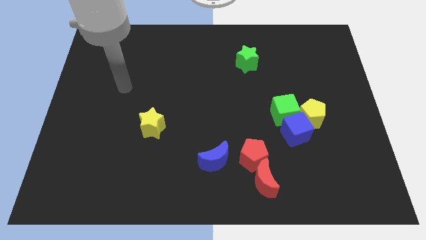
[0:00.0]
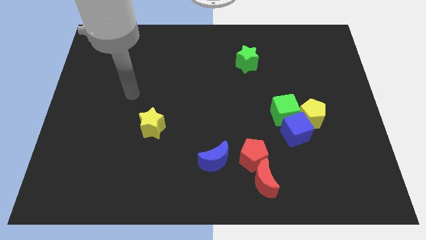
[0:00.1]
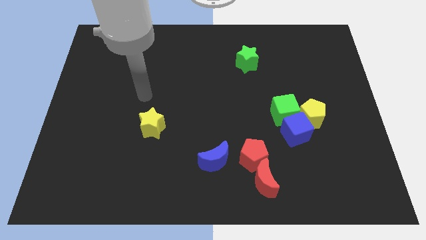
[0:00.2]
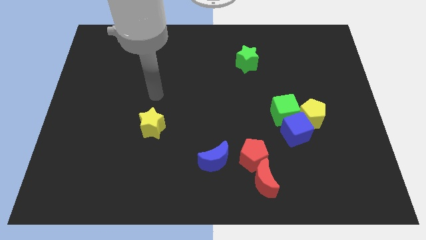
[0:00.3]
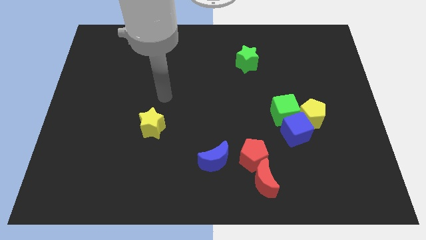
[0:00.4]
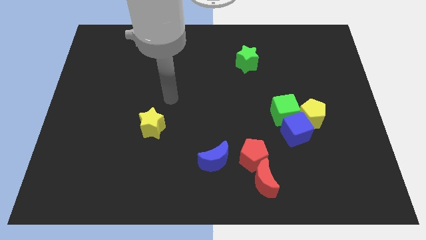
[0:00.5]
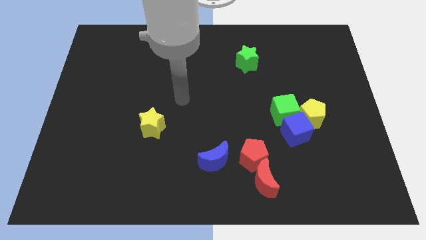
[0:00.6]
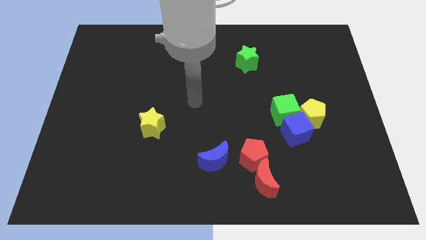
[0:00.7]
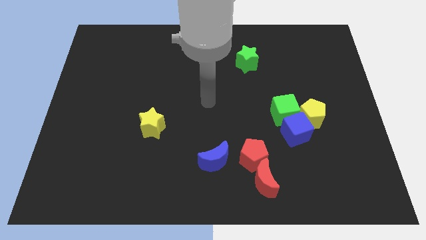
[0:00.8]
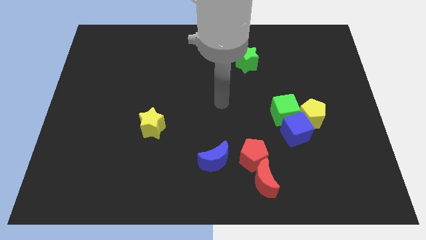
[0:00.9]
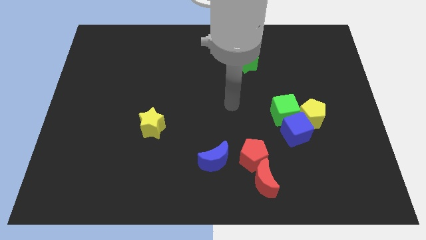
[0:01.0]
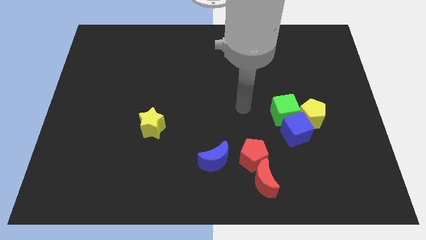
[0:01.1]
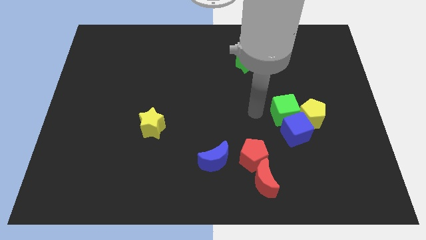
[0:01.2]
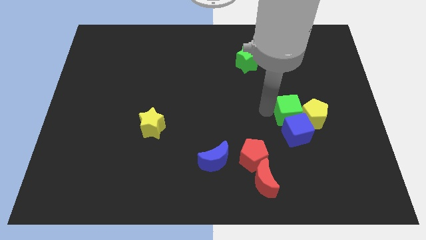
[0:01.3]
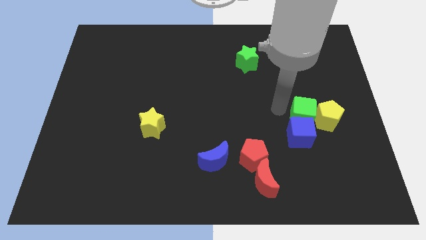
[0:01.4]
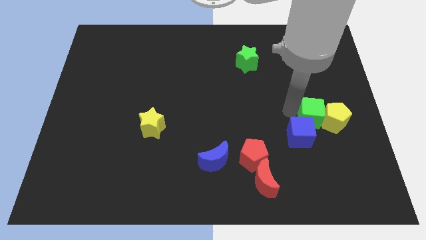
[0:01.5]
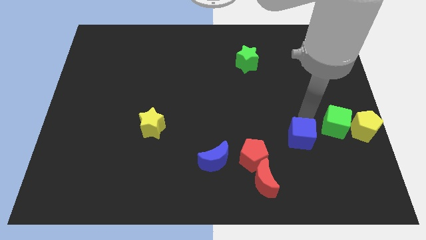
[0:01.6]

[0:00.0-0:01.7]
pull the blue cube apart from the yellow pentagon and green cube

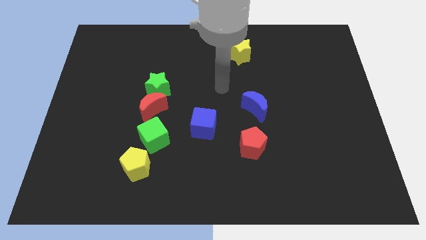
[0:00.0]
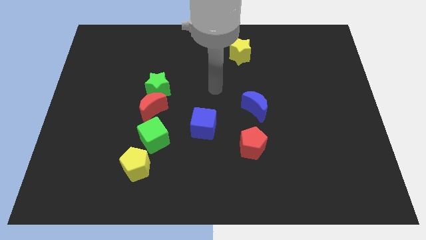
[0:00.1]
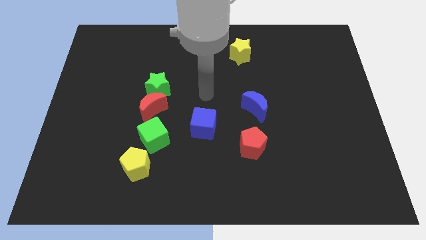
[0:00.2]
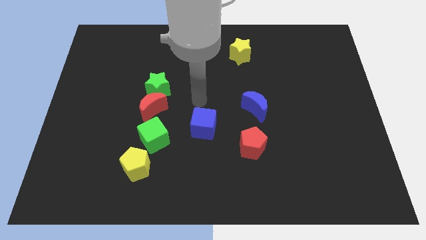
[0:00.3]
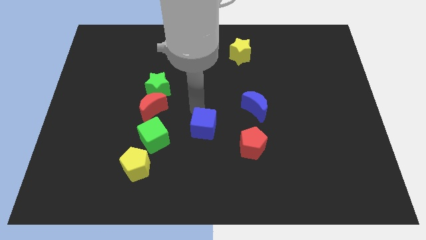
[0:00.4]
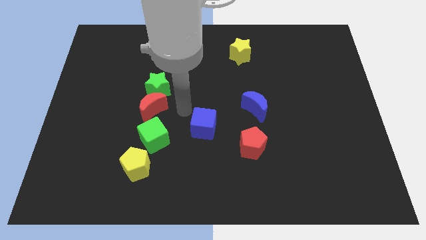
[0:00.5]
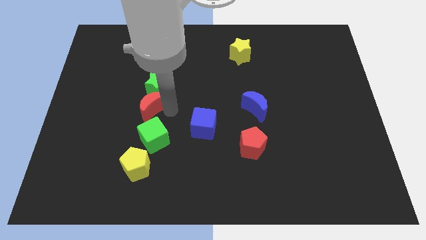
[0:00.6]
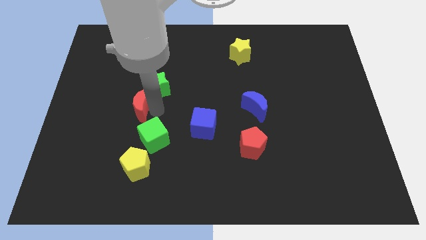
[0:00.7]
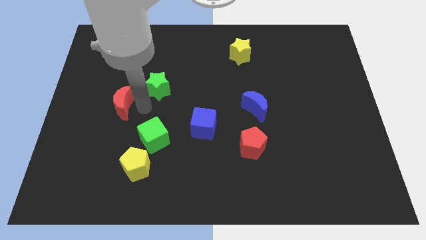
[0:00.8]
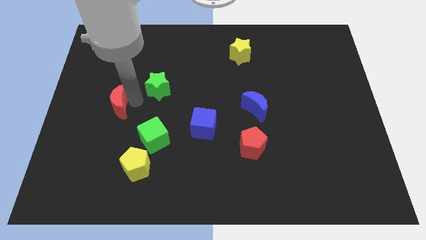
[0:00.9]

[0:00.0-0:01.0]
separate the green star from the red moon

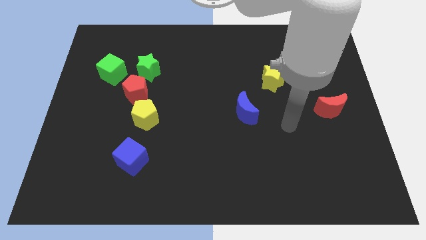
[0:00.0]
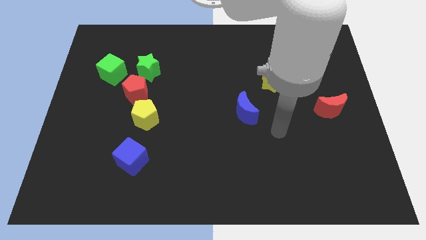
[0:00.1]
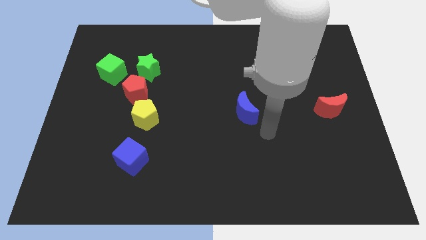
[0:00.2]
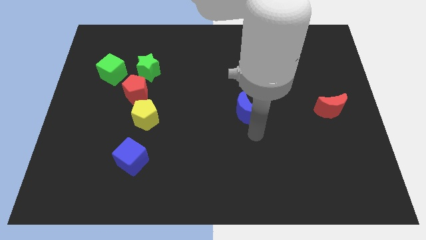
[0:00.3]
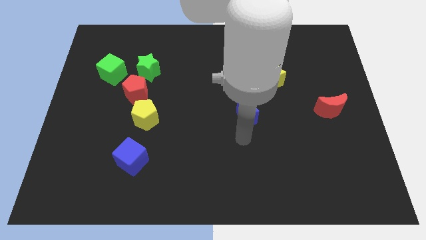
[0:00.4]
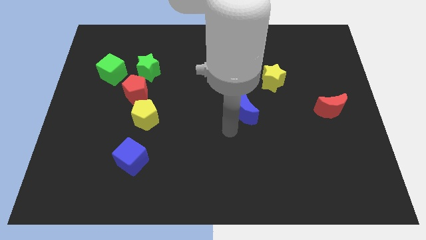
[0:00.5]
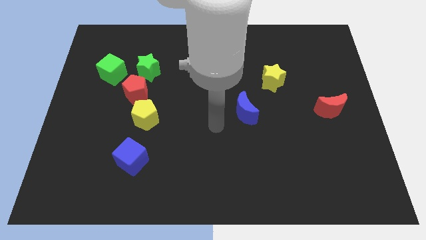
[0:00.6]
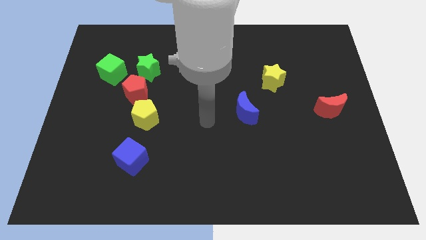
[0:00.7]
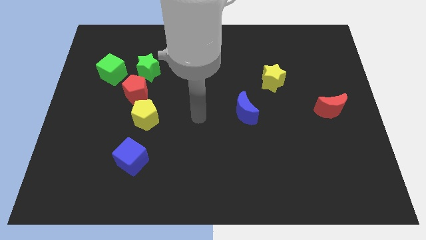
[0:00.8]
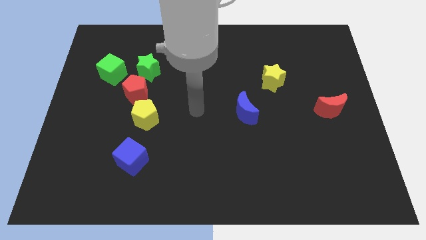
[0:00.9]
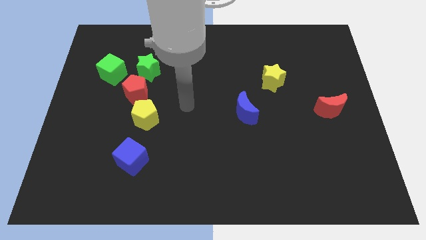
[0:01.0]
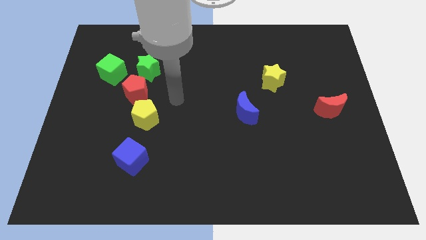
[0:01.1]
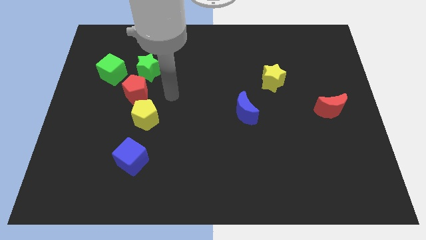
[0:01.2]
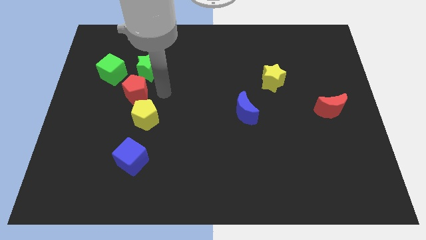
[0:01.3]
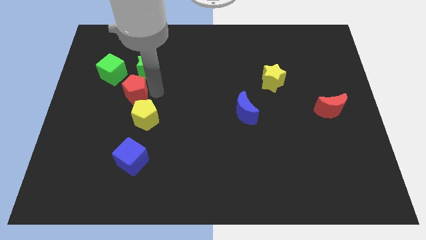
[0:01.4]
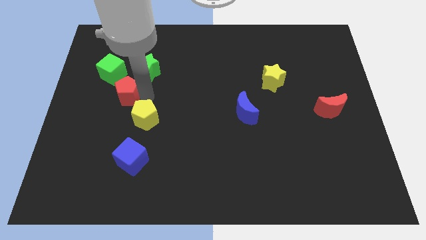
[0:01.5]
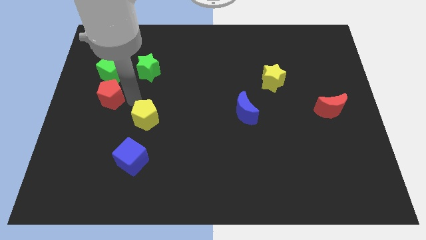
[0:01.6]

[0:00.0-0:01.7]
separate the yellow pentagon from the red pentagon

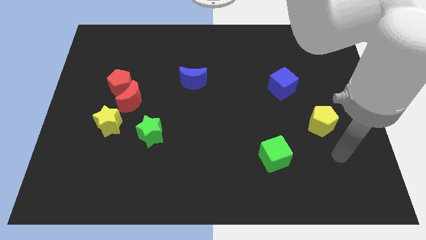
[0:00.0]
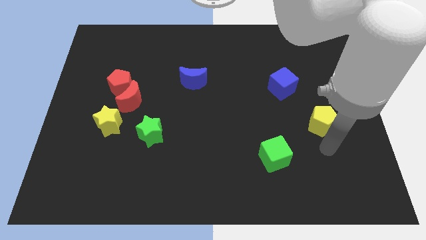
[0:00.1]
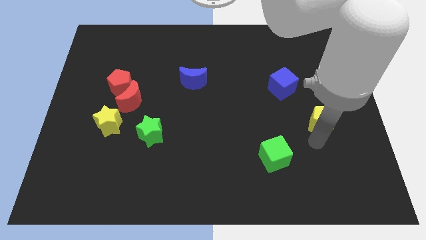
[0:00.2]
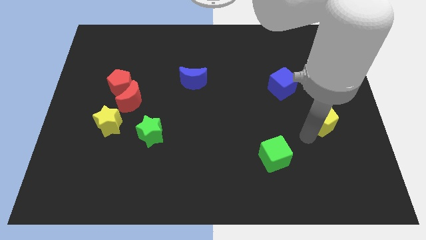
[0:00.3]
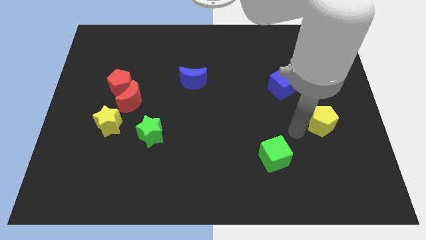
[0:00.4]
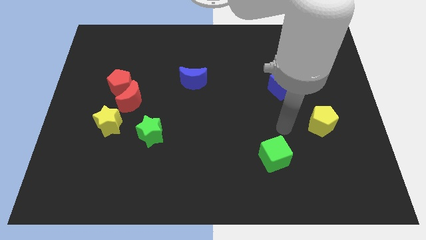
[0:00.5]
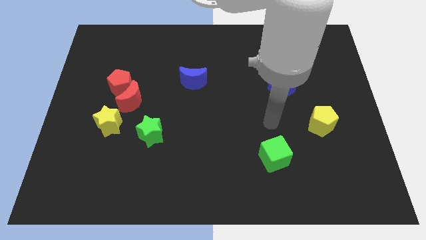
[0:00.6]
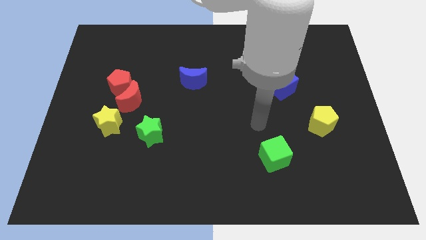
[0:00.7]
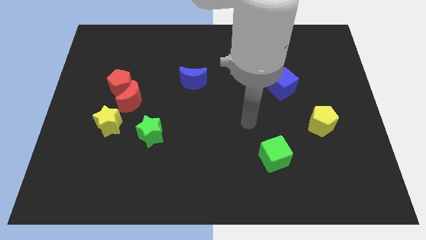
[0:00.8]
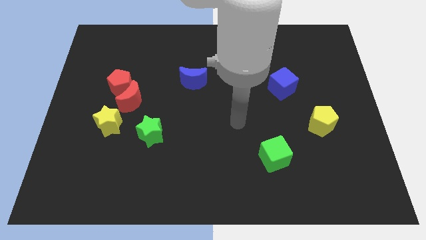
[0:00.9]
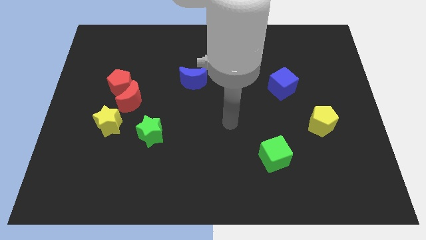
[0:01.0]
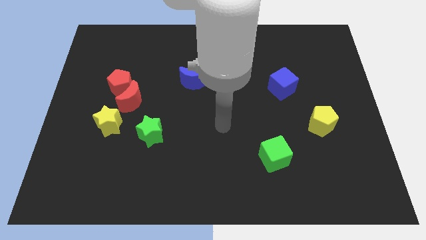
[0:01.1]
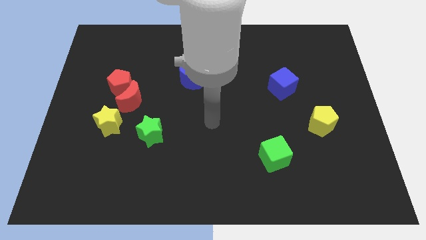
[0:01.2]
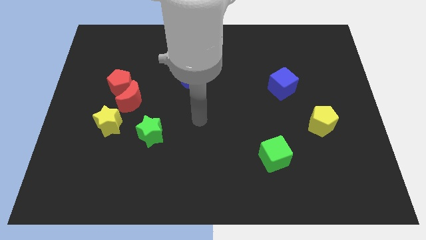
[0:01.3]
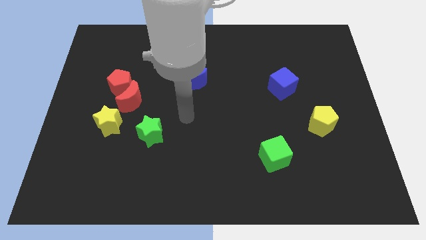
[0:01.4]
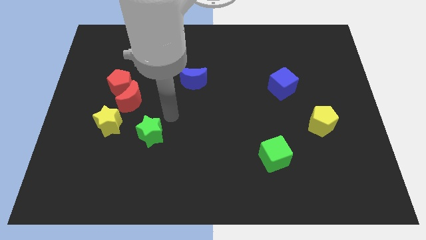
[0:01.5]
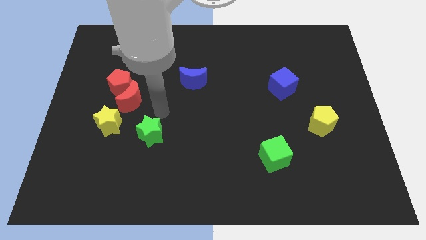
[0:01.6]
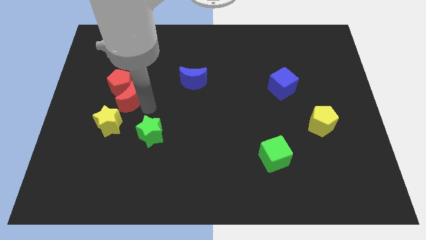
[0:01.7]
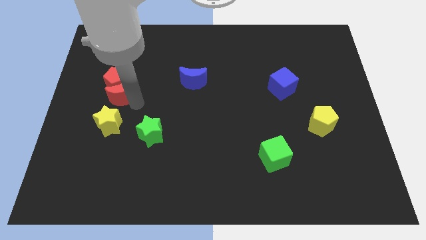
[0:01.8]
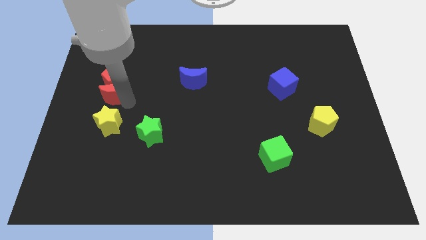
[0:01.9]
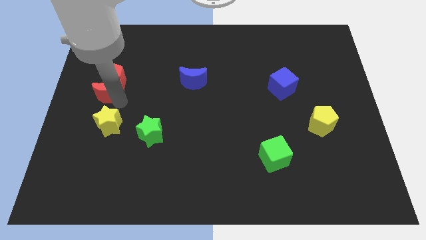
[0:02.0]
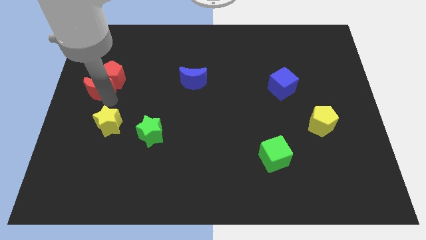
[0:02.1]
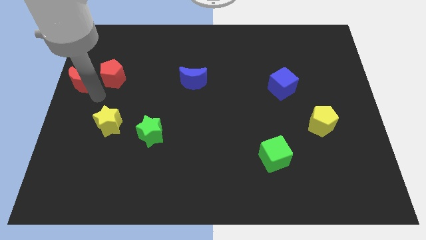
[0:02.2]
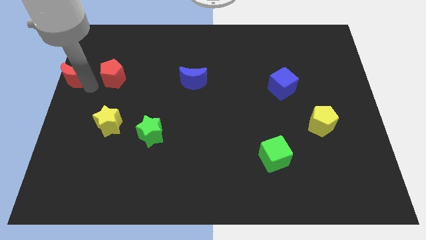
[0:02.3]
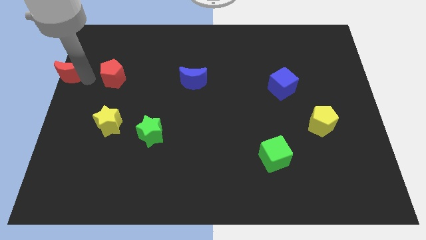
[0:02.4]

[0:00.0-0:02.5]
move the red pentagon away from the red moon

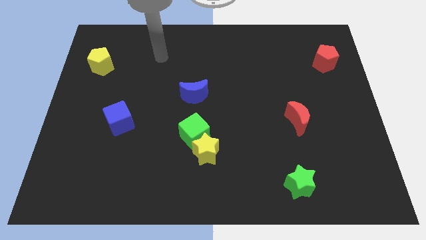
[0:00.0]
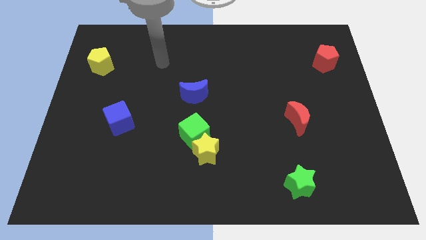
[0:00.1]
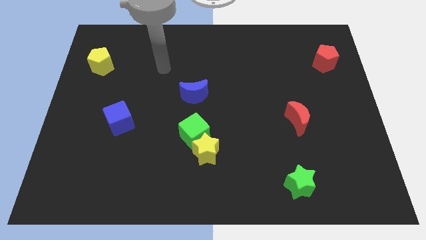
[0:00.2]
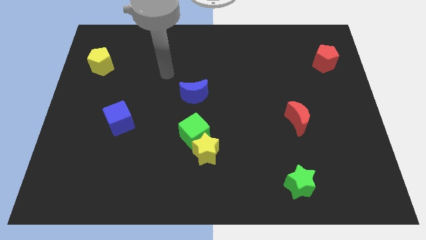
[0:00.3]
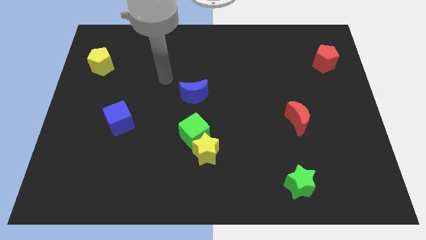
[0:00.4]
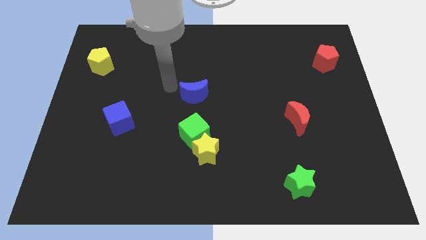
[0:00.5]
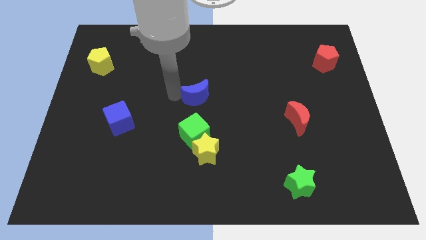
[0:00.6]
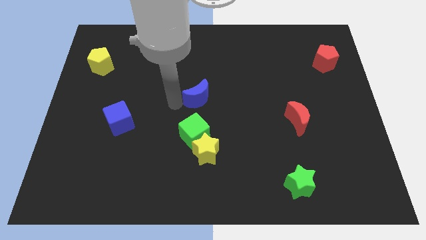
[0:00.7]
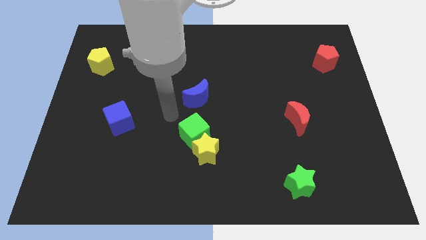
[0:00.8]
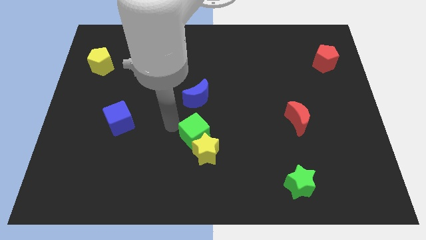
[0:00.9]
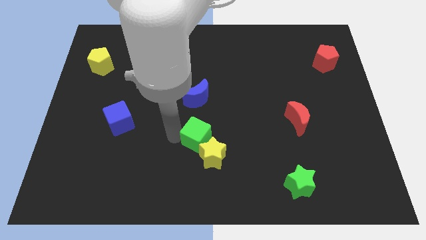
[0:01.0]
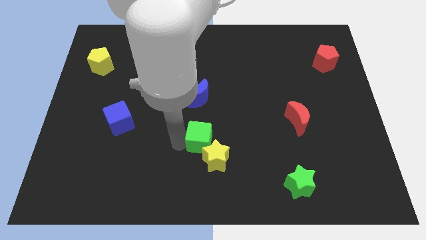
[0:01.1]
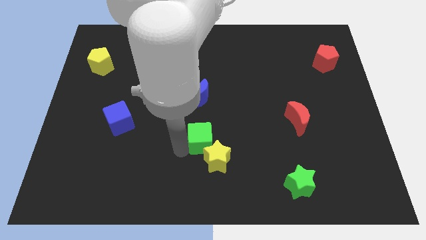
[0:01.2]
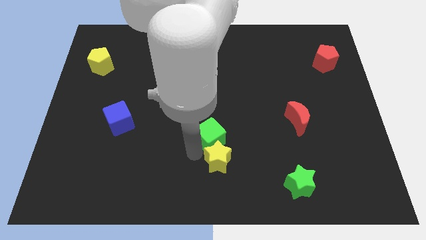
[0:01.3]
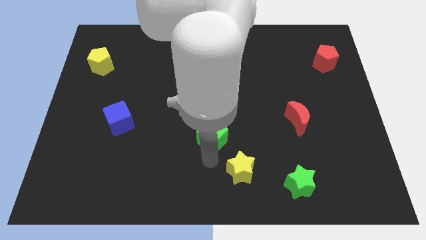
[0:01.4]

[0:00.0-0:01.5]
move the green cube away from the yellow star

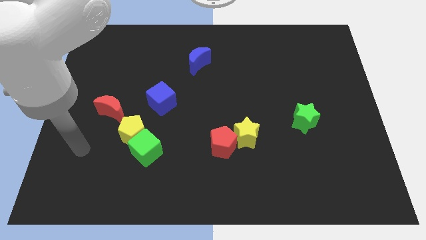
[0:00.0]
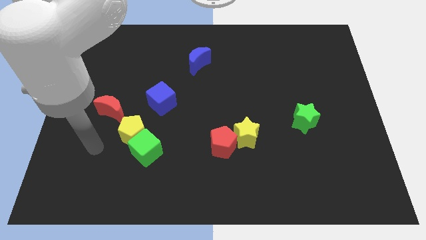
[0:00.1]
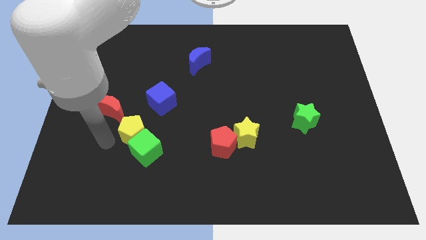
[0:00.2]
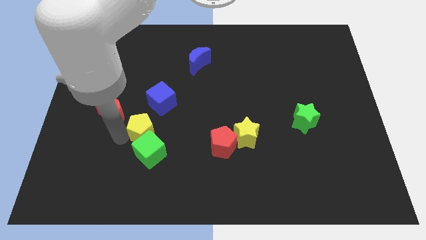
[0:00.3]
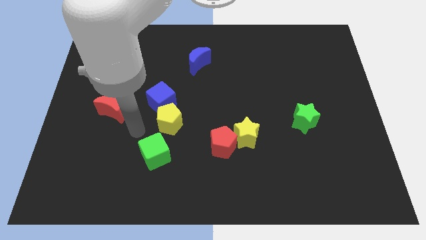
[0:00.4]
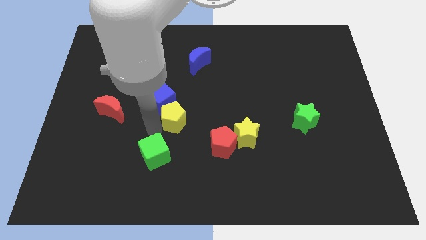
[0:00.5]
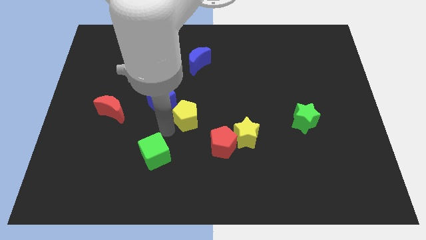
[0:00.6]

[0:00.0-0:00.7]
pull the green cube apart from the yellow pentagon

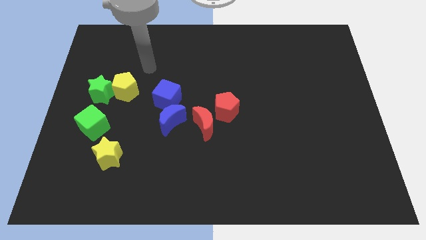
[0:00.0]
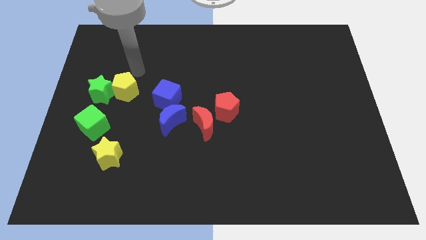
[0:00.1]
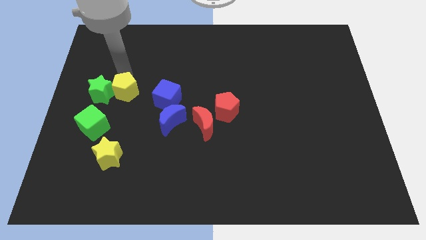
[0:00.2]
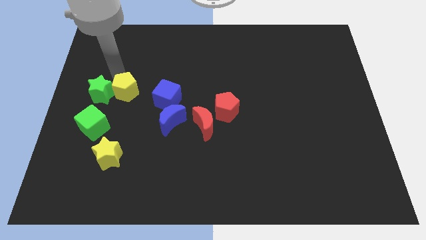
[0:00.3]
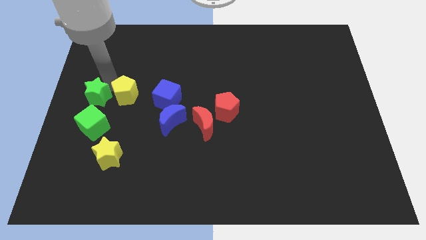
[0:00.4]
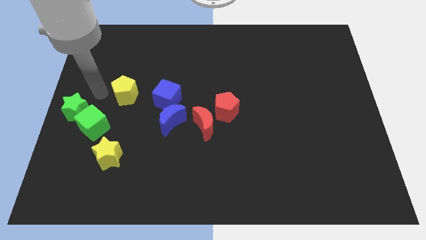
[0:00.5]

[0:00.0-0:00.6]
pull the yellow pentagon apart from the green star
